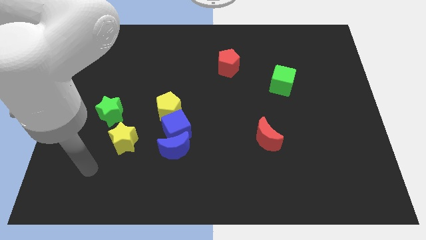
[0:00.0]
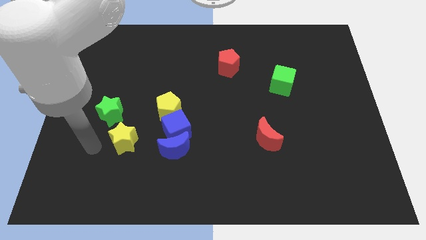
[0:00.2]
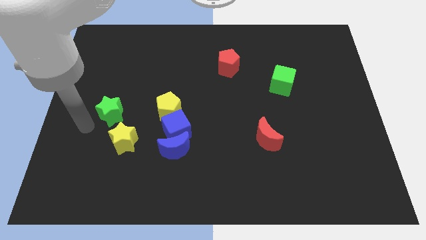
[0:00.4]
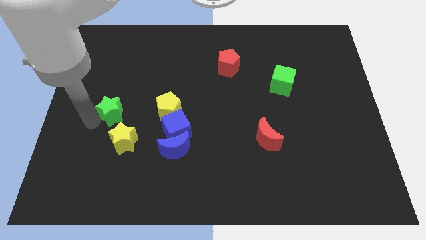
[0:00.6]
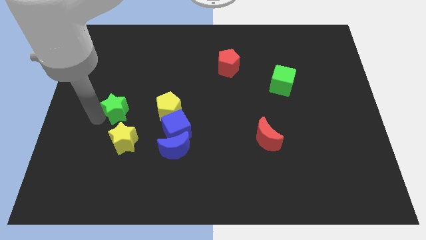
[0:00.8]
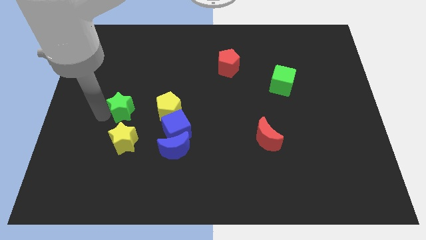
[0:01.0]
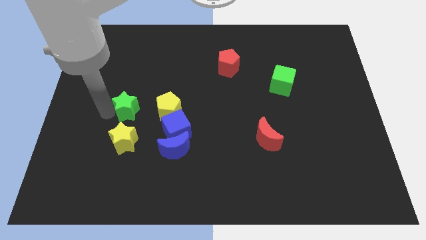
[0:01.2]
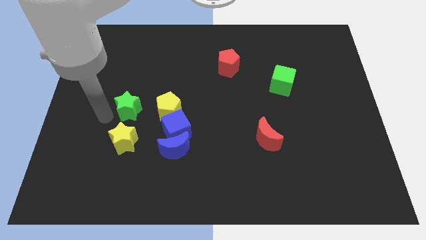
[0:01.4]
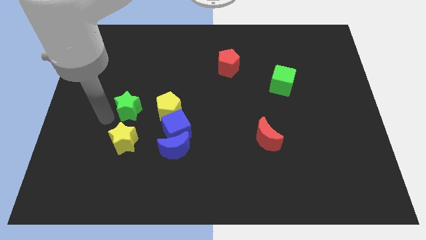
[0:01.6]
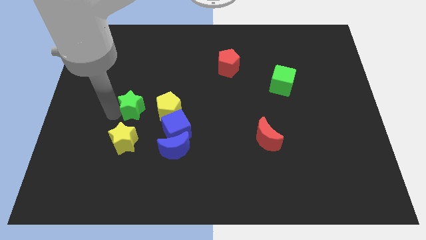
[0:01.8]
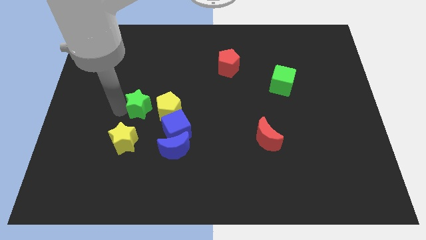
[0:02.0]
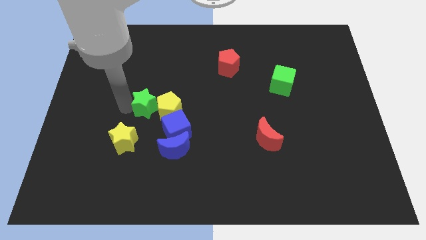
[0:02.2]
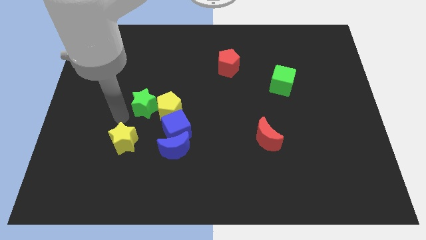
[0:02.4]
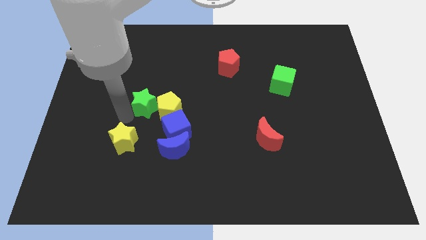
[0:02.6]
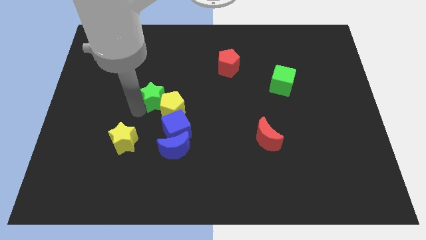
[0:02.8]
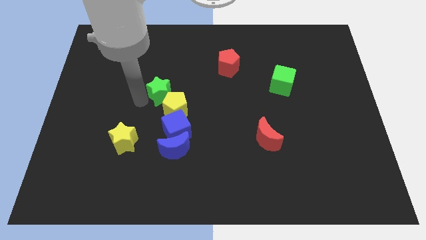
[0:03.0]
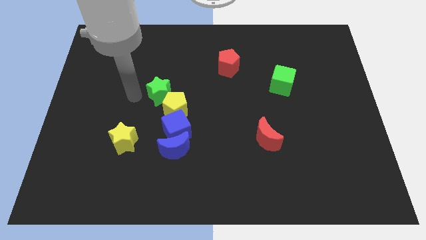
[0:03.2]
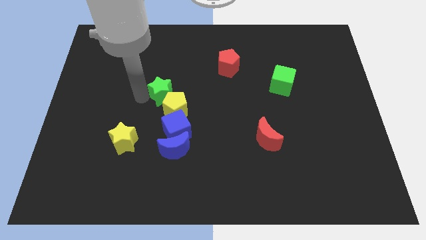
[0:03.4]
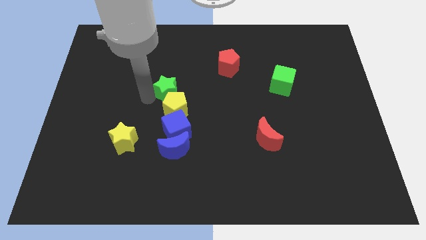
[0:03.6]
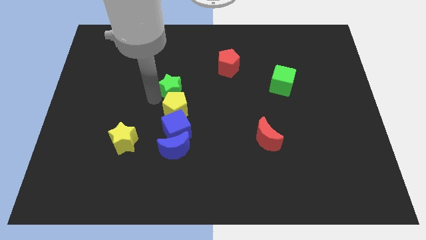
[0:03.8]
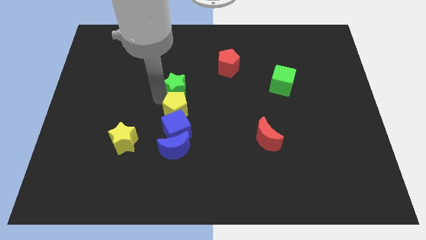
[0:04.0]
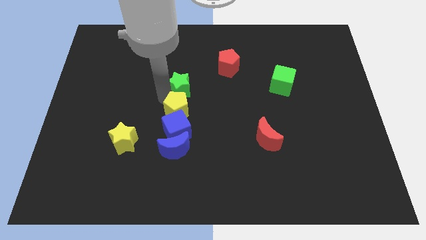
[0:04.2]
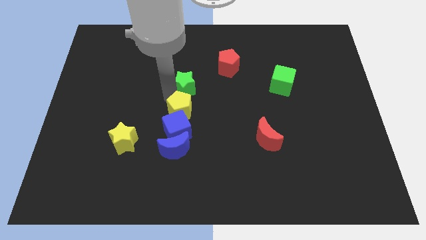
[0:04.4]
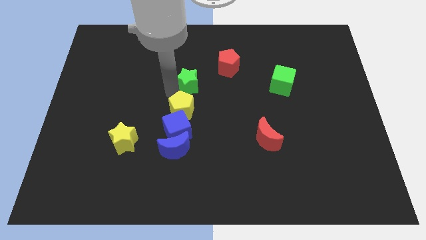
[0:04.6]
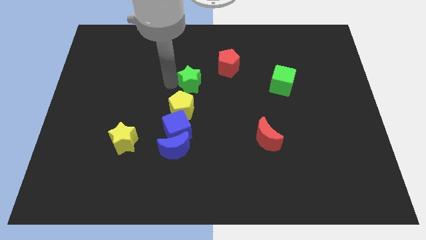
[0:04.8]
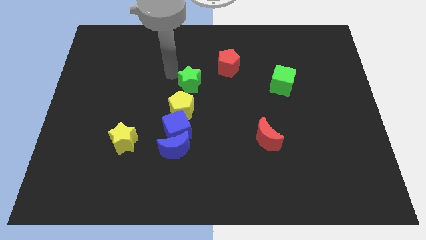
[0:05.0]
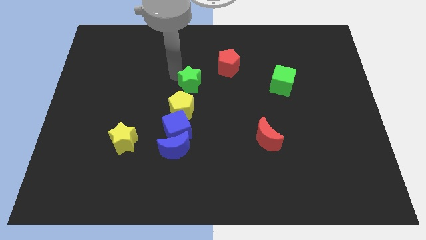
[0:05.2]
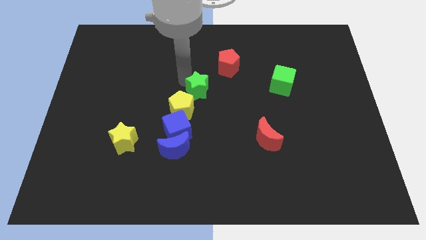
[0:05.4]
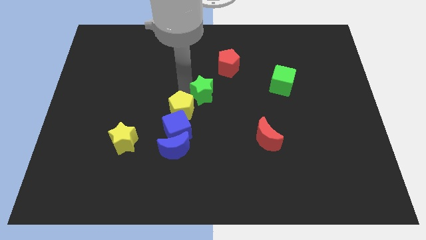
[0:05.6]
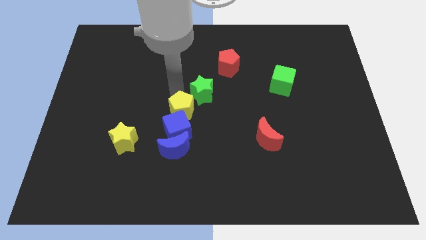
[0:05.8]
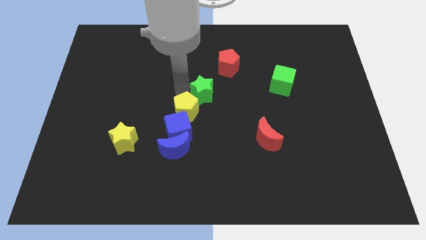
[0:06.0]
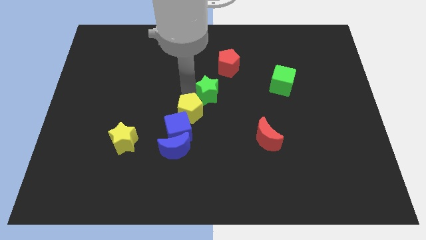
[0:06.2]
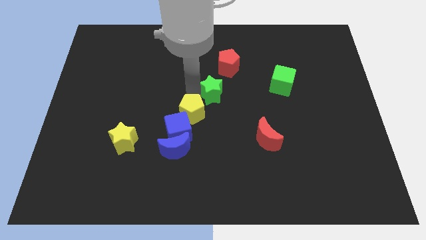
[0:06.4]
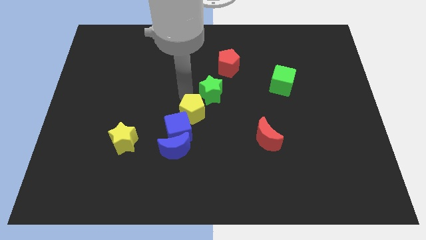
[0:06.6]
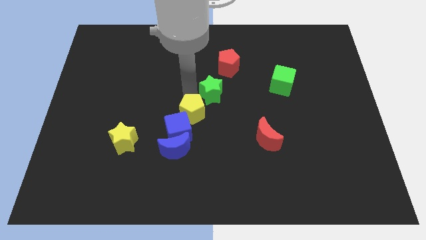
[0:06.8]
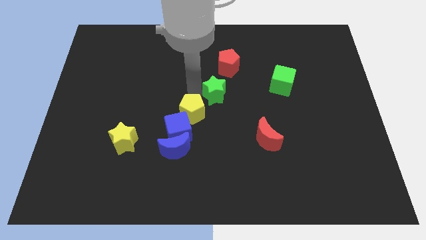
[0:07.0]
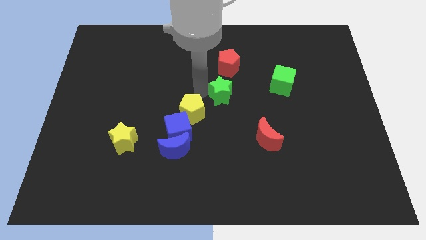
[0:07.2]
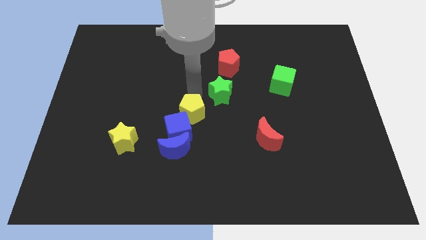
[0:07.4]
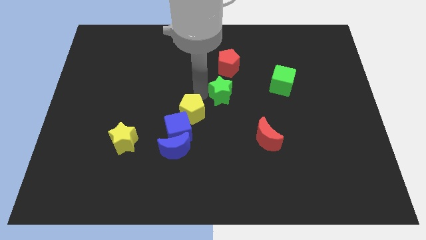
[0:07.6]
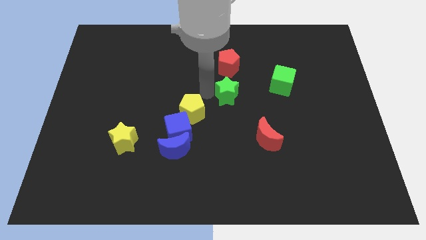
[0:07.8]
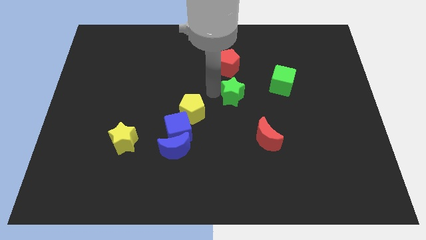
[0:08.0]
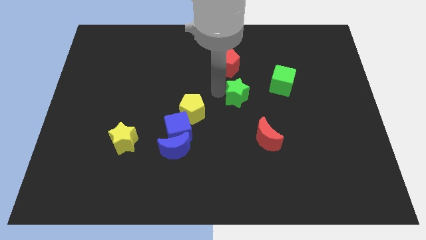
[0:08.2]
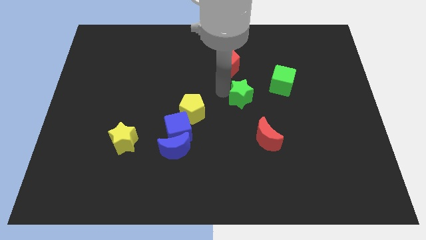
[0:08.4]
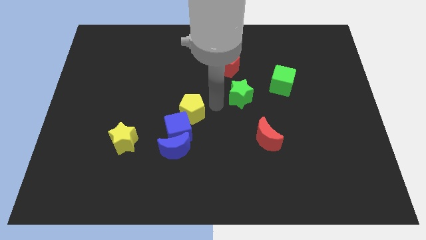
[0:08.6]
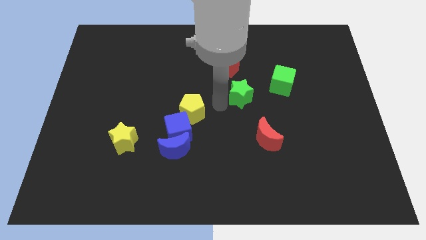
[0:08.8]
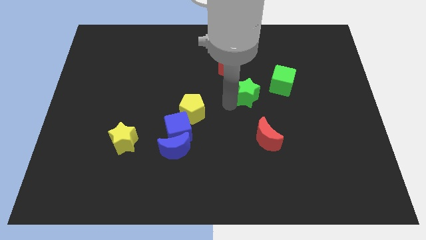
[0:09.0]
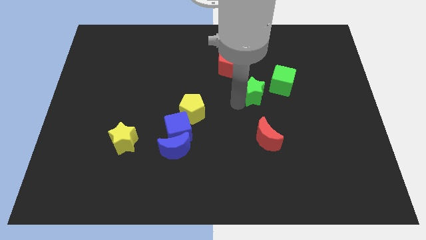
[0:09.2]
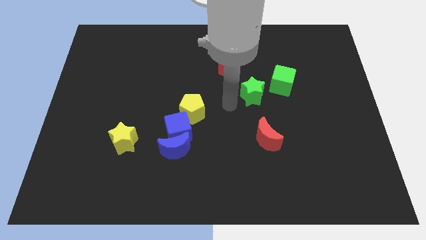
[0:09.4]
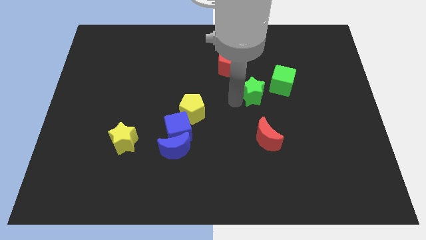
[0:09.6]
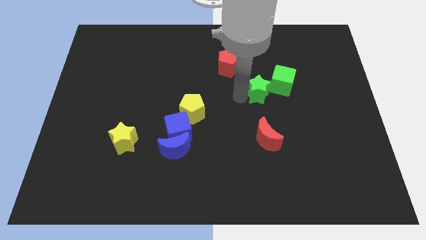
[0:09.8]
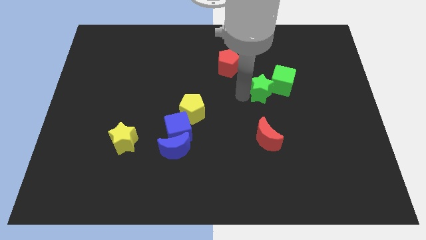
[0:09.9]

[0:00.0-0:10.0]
push the green star to the green cube

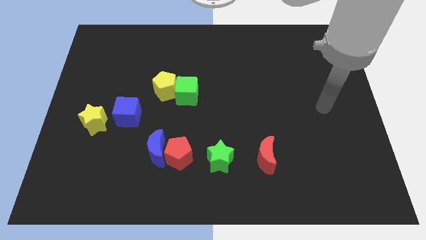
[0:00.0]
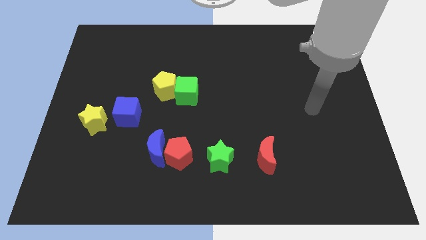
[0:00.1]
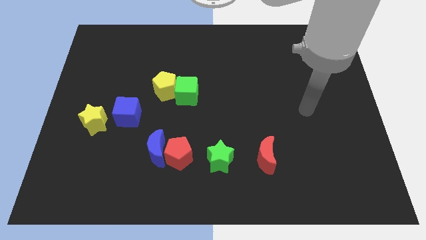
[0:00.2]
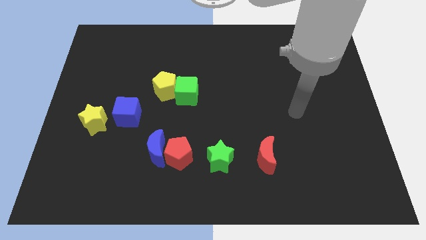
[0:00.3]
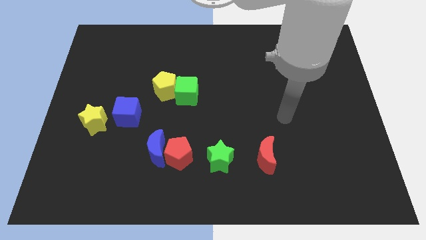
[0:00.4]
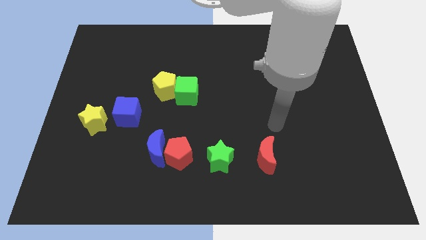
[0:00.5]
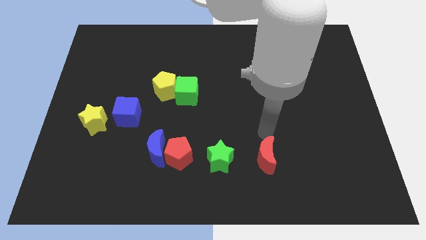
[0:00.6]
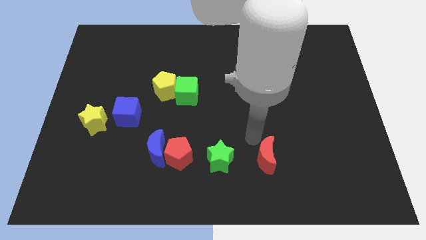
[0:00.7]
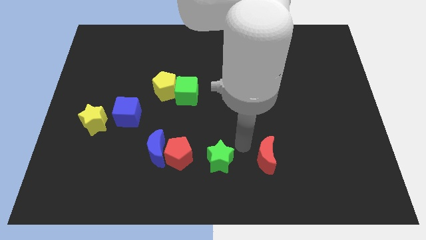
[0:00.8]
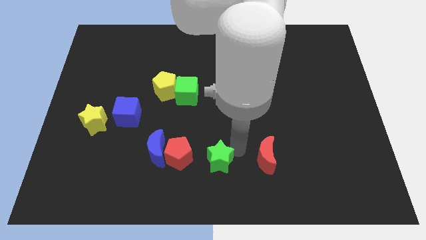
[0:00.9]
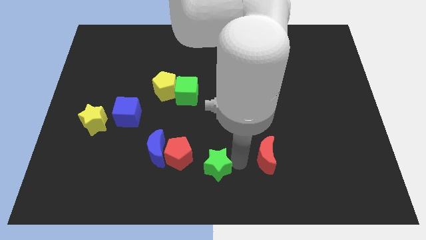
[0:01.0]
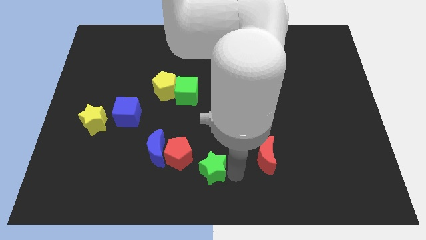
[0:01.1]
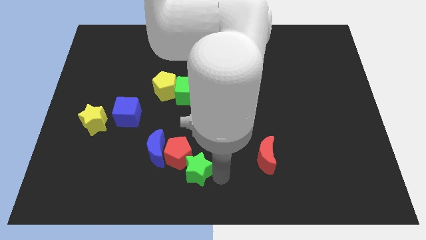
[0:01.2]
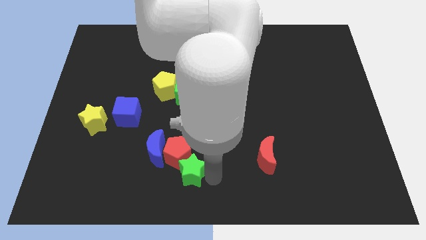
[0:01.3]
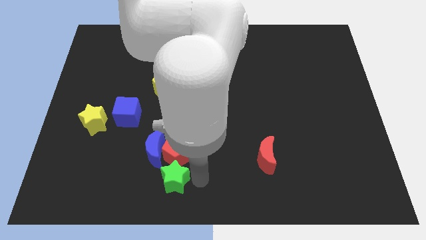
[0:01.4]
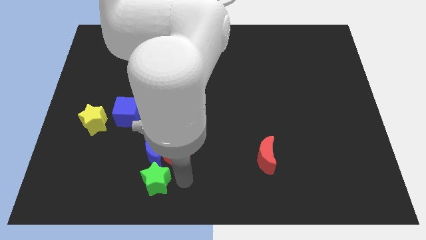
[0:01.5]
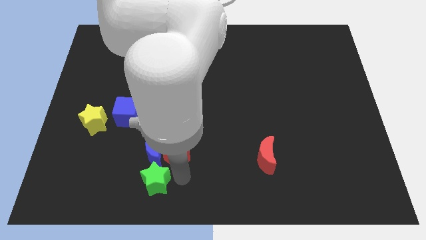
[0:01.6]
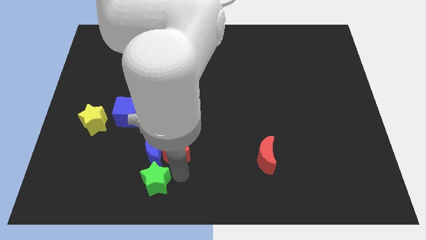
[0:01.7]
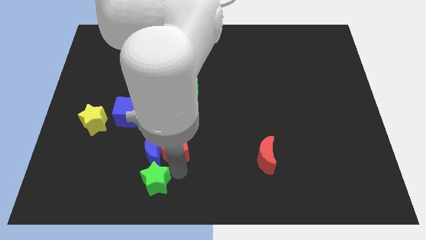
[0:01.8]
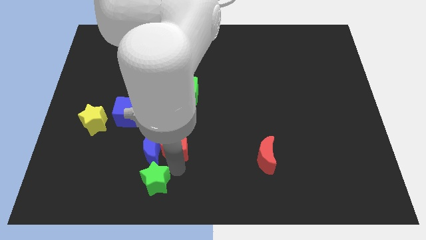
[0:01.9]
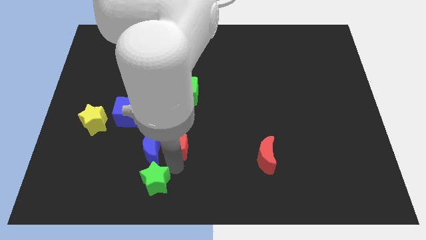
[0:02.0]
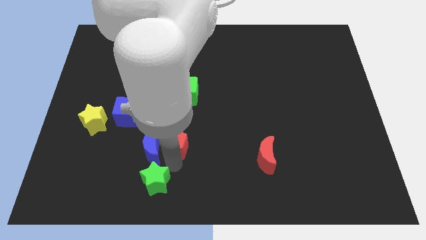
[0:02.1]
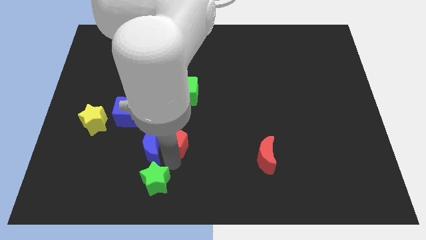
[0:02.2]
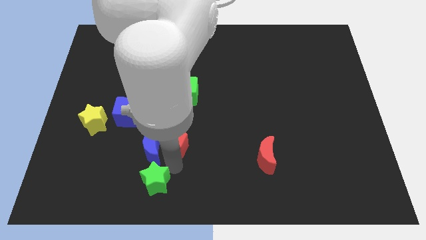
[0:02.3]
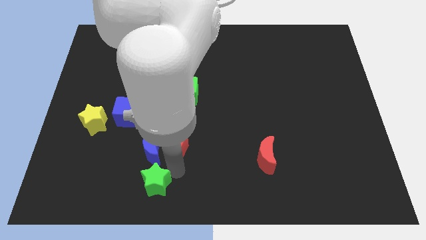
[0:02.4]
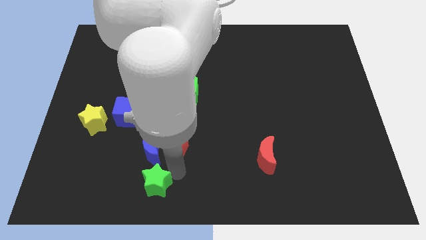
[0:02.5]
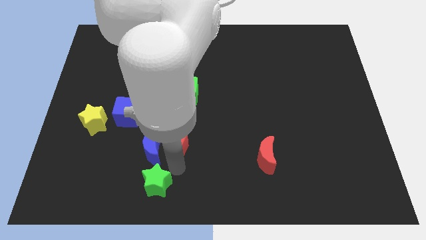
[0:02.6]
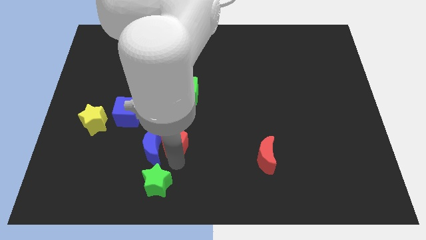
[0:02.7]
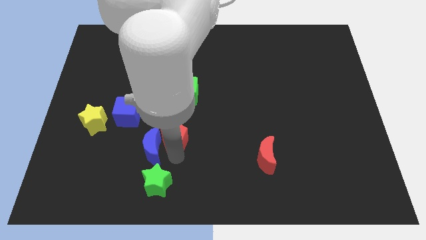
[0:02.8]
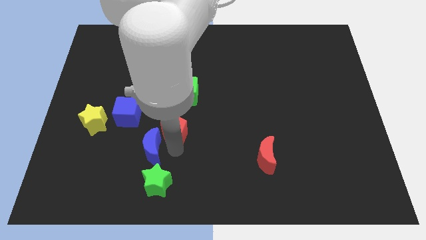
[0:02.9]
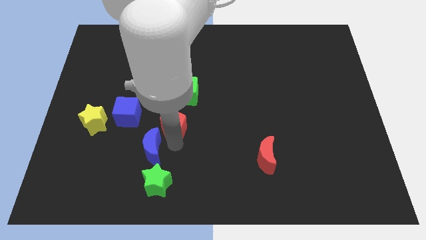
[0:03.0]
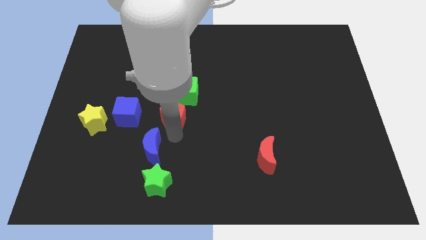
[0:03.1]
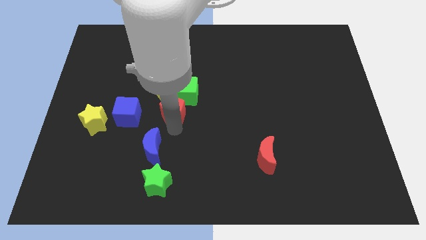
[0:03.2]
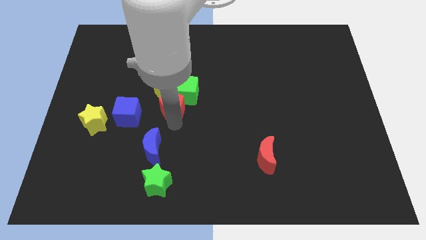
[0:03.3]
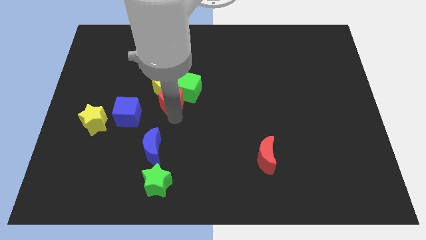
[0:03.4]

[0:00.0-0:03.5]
slide the red pentagon to the yellow pentagon
